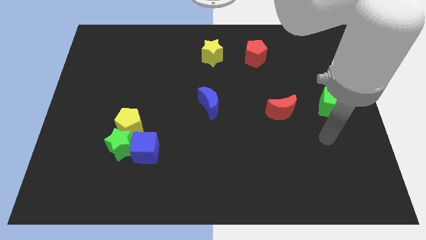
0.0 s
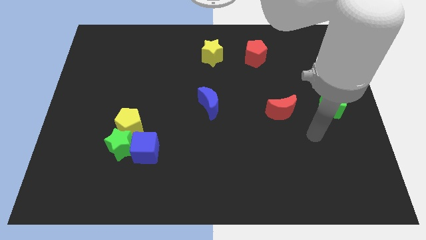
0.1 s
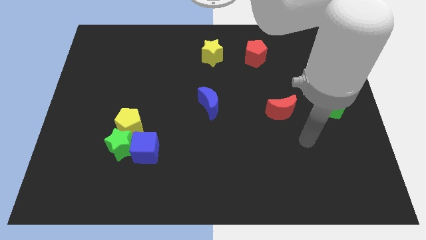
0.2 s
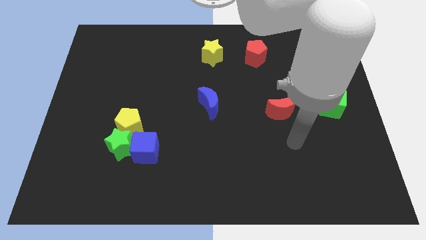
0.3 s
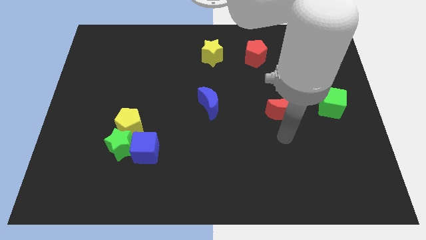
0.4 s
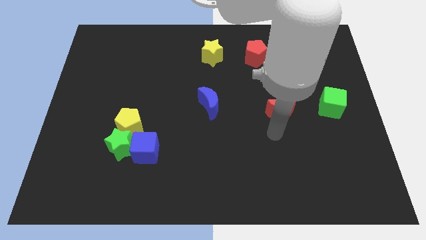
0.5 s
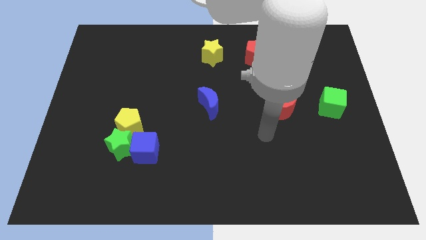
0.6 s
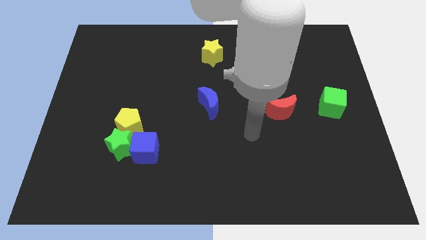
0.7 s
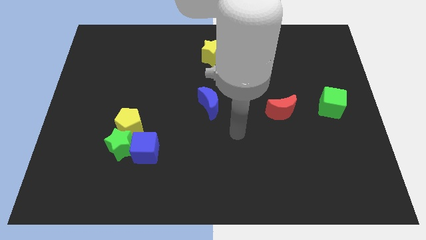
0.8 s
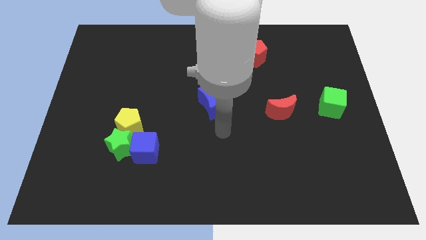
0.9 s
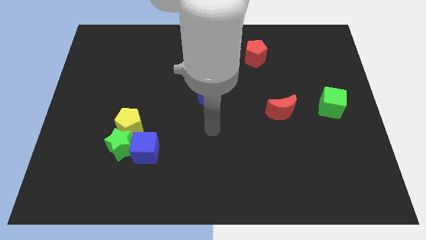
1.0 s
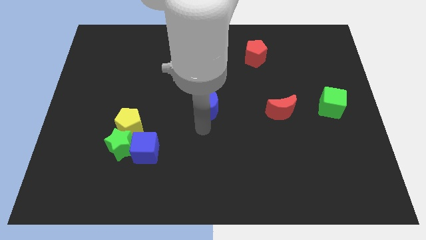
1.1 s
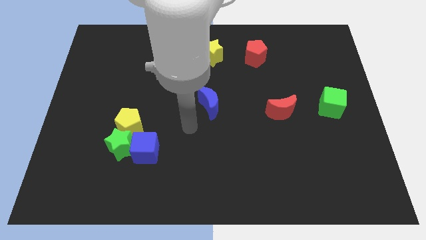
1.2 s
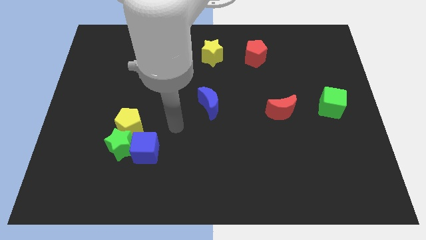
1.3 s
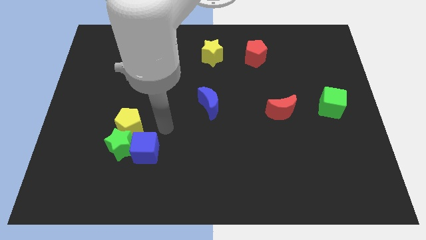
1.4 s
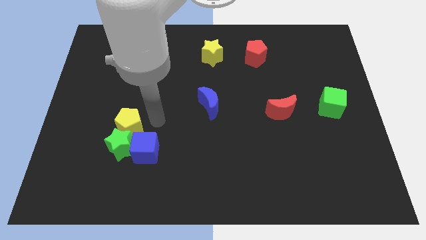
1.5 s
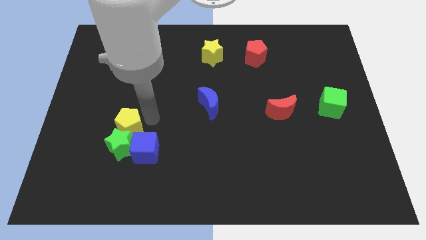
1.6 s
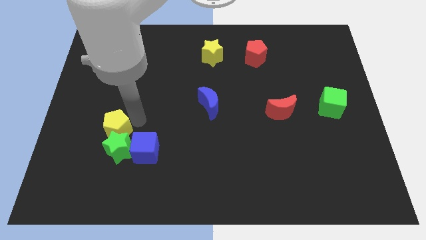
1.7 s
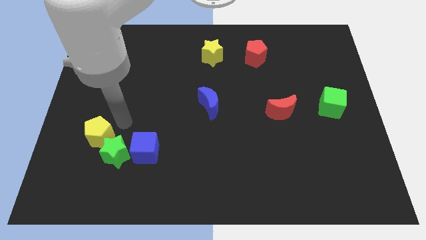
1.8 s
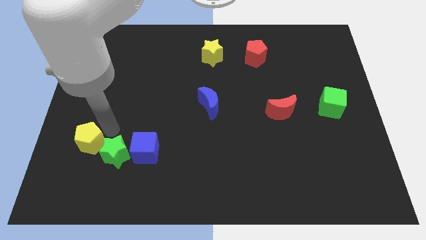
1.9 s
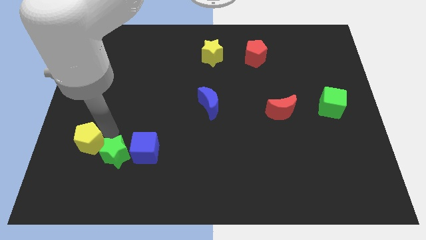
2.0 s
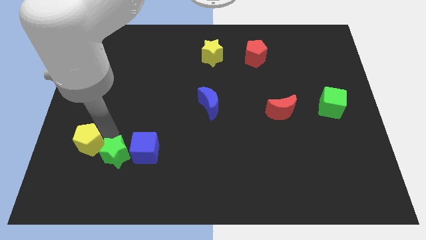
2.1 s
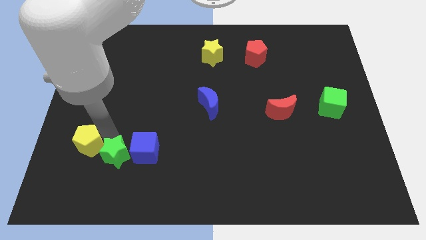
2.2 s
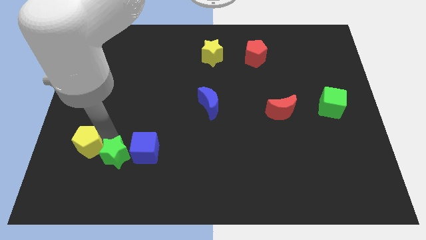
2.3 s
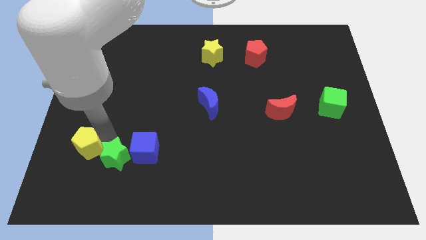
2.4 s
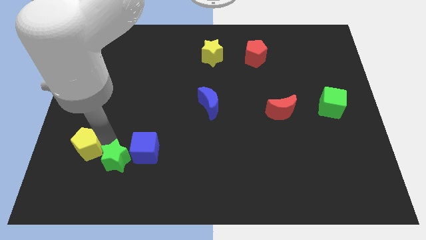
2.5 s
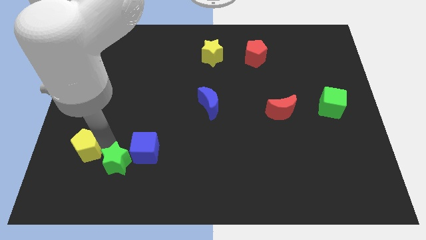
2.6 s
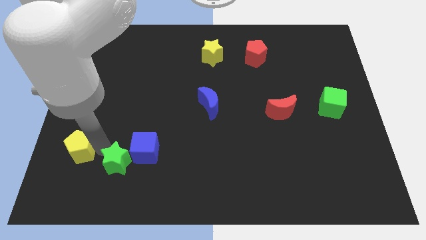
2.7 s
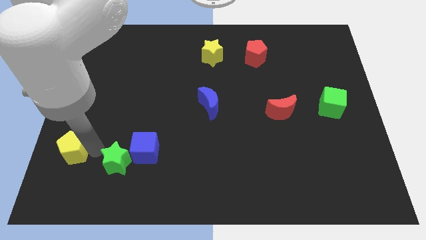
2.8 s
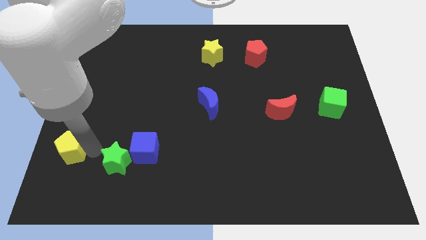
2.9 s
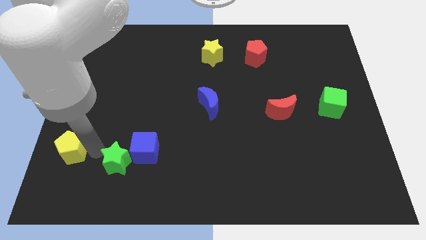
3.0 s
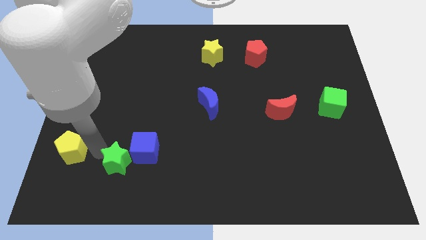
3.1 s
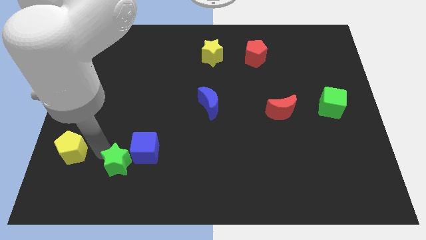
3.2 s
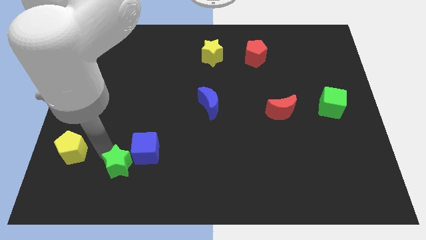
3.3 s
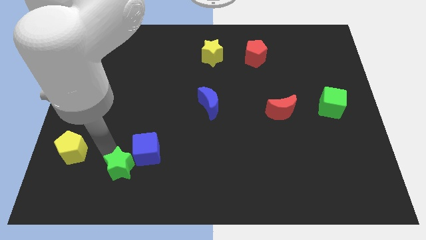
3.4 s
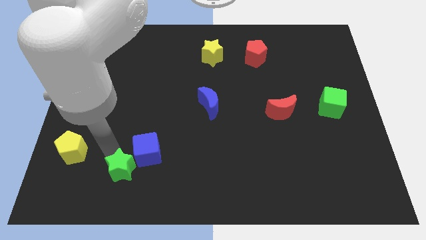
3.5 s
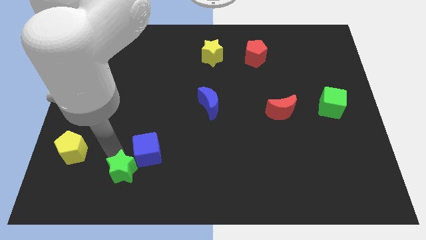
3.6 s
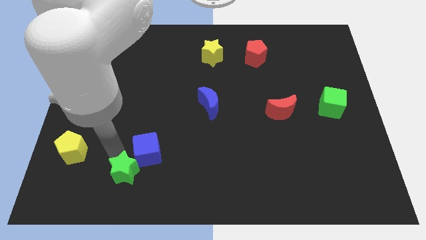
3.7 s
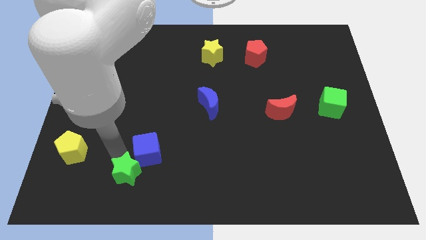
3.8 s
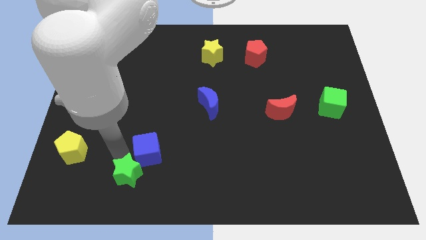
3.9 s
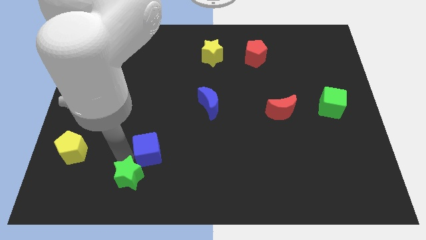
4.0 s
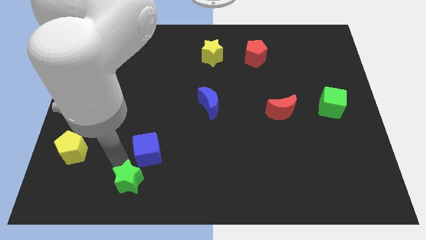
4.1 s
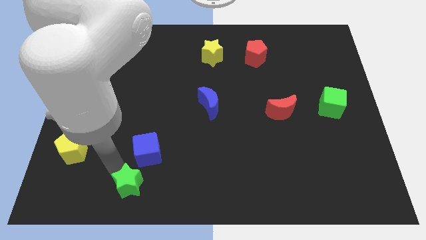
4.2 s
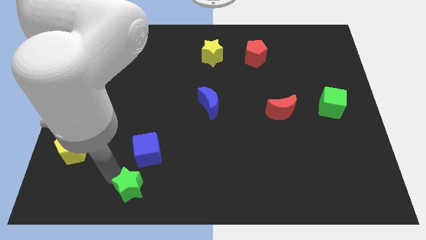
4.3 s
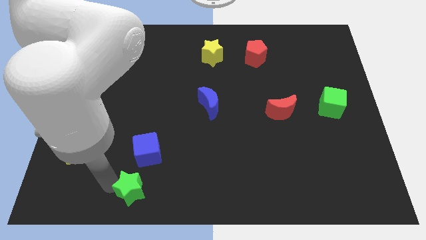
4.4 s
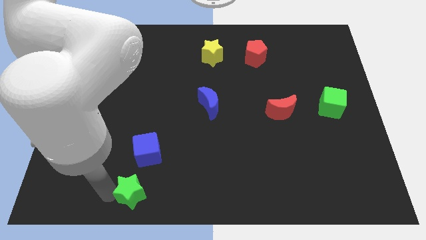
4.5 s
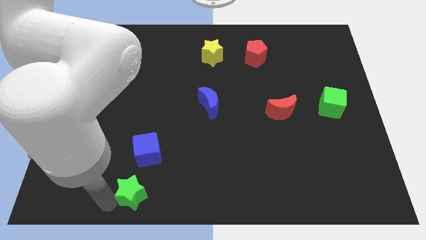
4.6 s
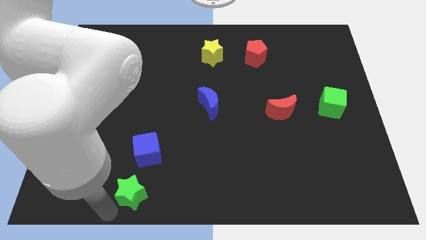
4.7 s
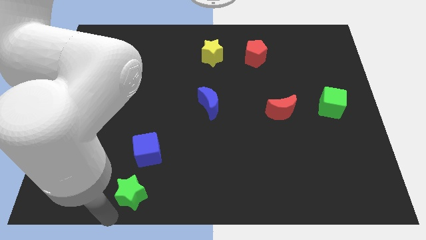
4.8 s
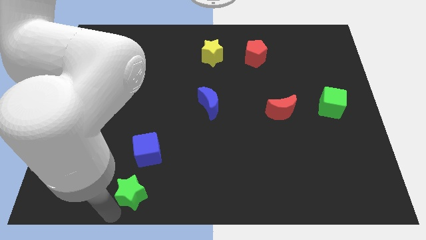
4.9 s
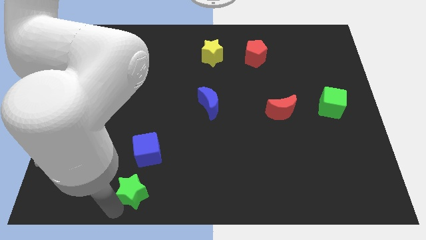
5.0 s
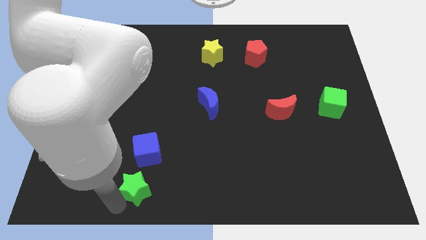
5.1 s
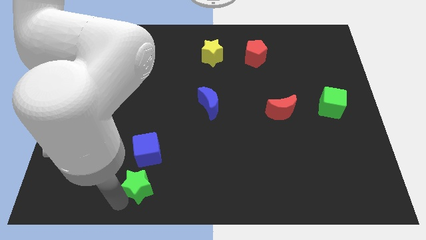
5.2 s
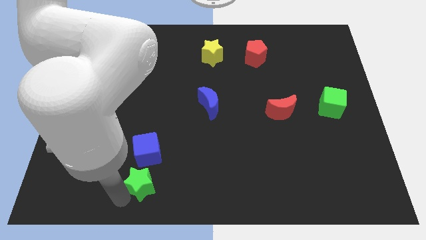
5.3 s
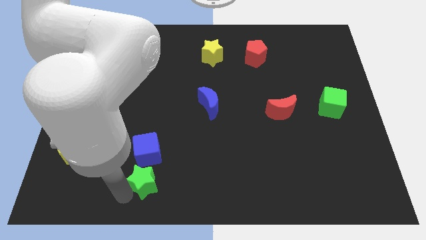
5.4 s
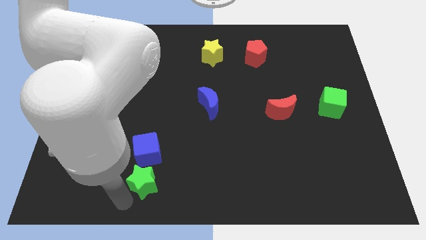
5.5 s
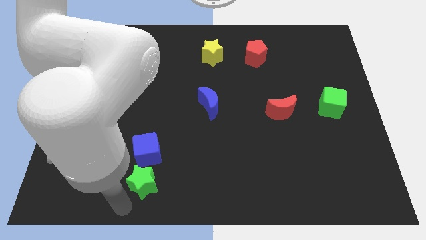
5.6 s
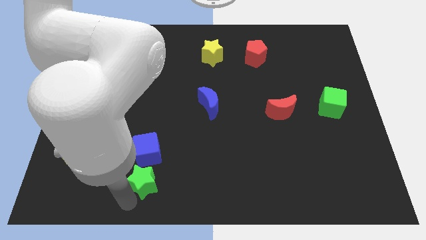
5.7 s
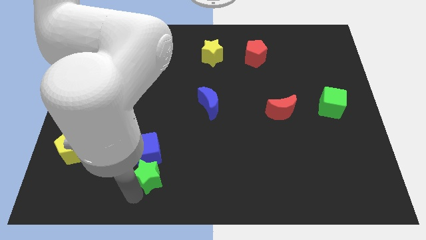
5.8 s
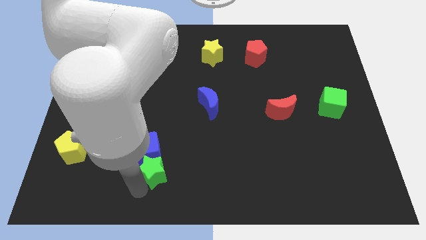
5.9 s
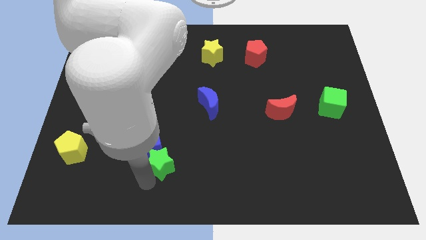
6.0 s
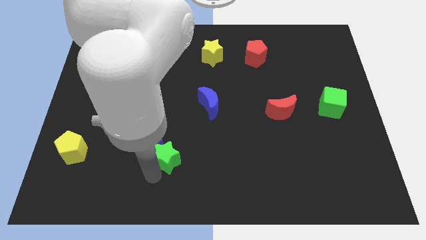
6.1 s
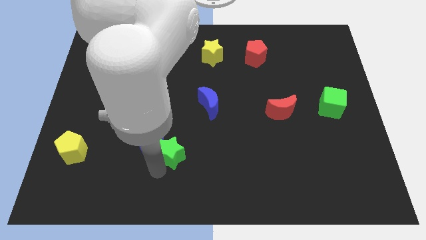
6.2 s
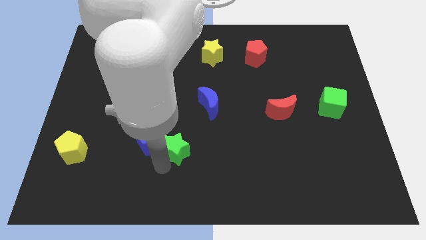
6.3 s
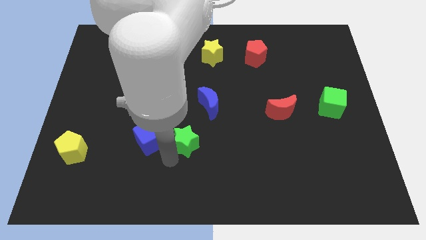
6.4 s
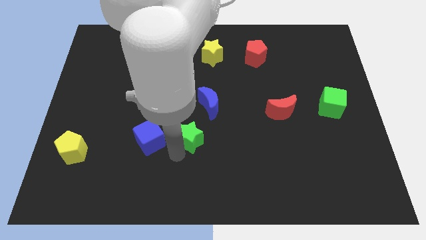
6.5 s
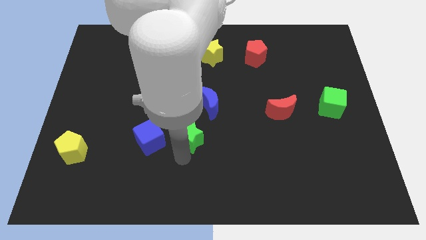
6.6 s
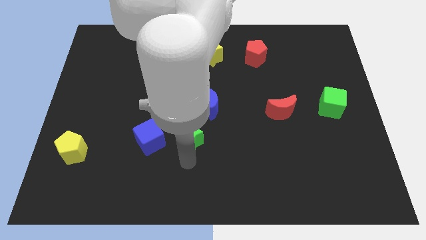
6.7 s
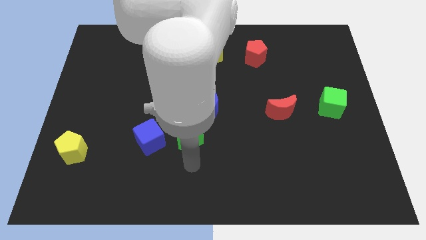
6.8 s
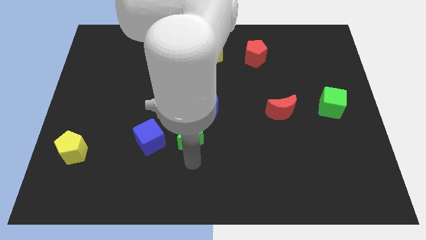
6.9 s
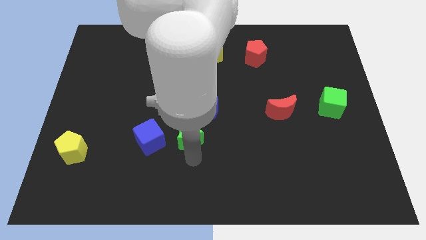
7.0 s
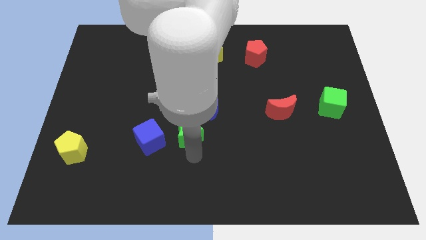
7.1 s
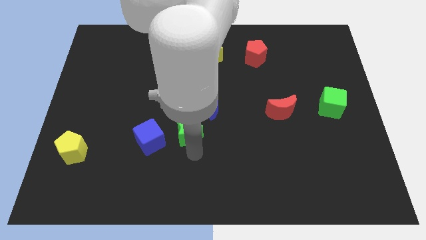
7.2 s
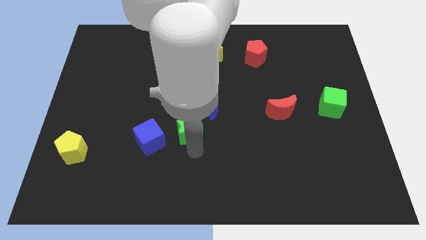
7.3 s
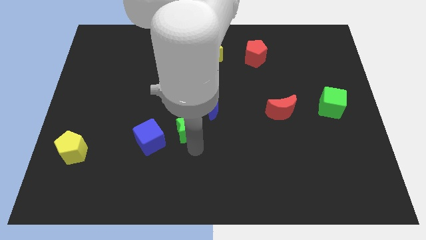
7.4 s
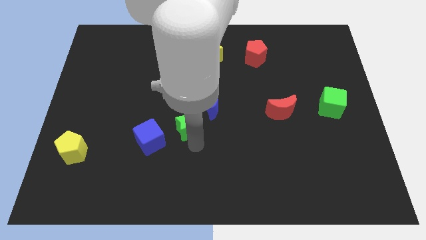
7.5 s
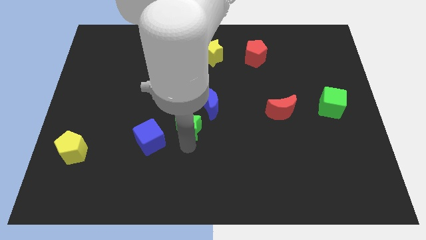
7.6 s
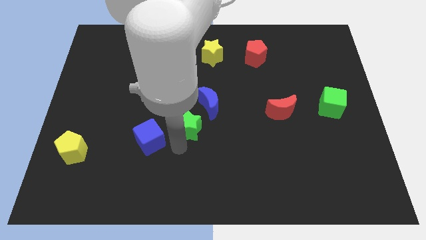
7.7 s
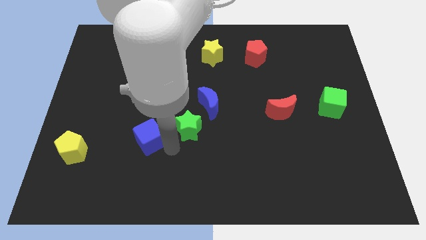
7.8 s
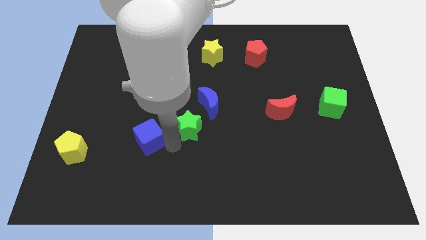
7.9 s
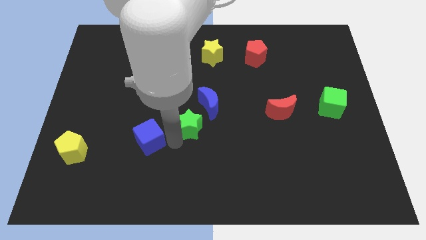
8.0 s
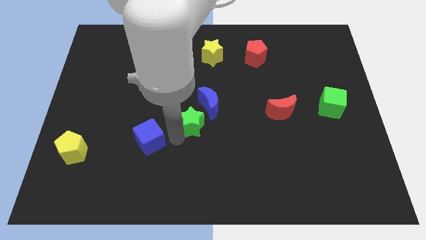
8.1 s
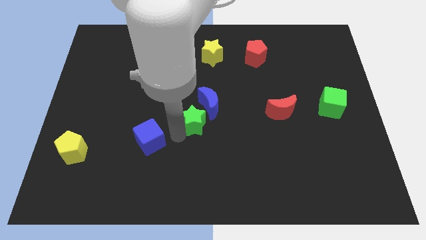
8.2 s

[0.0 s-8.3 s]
move the green star next to the blue moon
